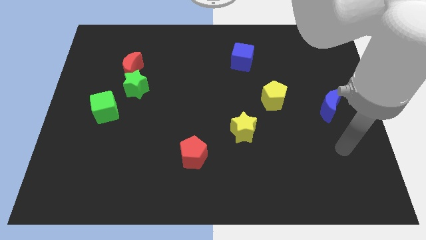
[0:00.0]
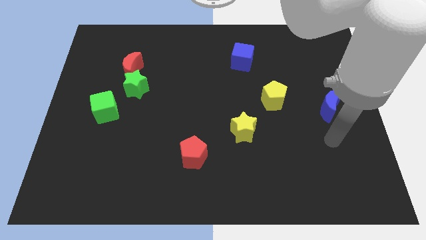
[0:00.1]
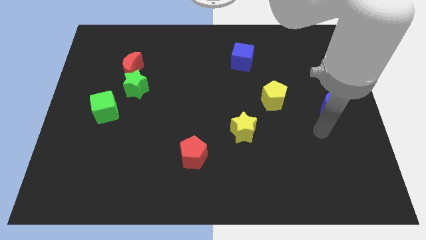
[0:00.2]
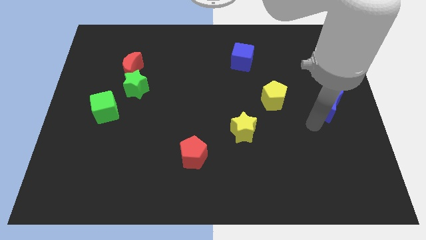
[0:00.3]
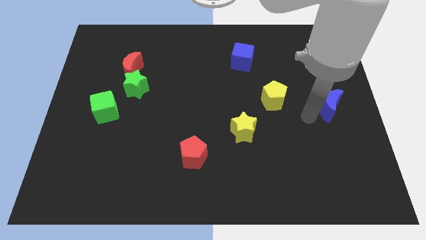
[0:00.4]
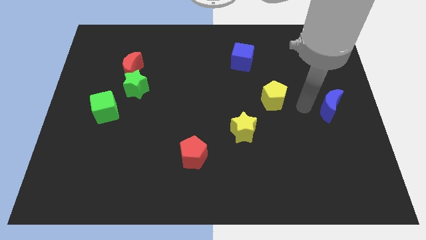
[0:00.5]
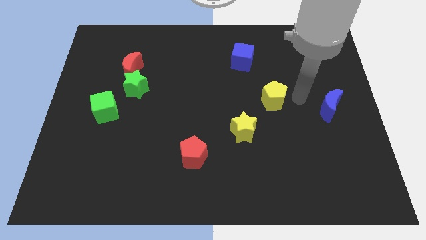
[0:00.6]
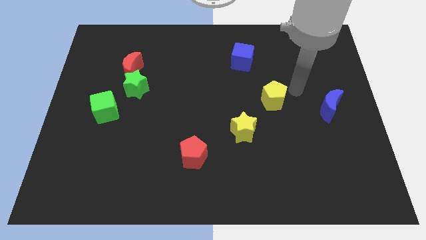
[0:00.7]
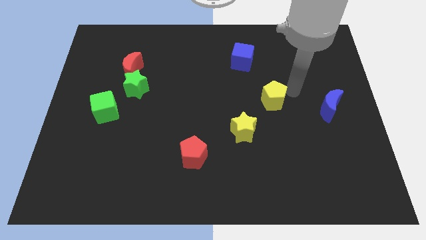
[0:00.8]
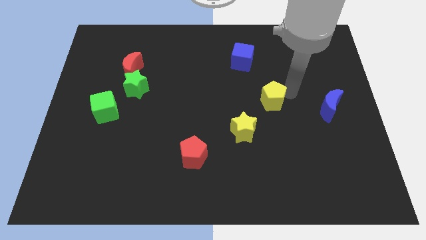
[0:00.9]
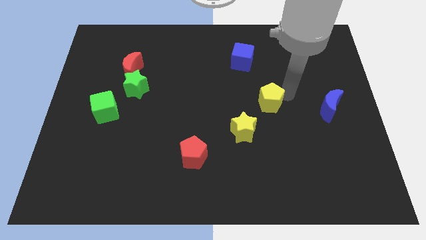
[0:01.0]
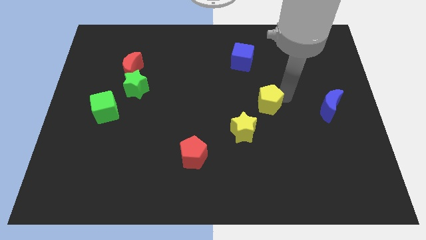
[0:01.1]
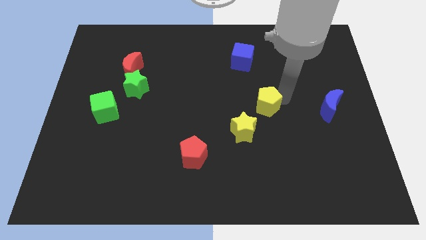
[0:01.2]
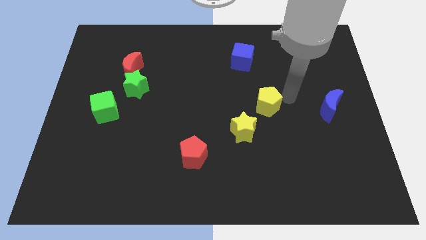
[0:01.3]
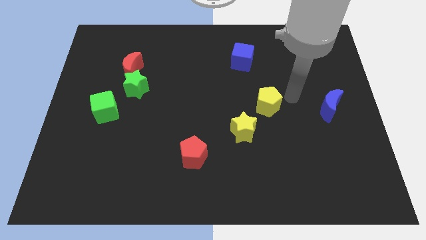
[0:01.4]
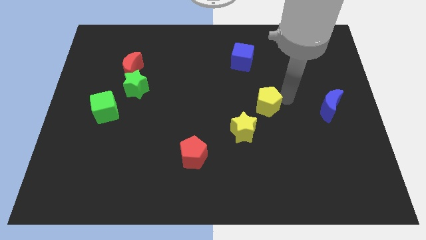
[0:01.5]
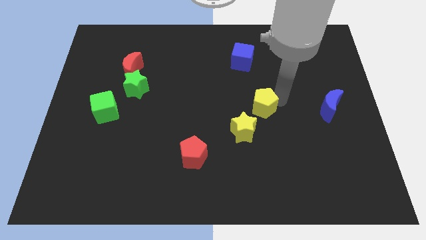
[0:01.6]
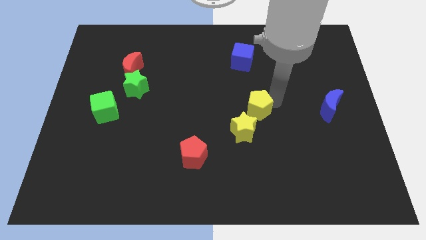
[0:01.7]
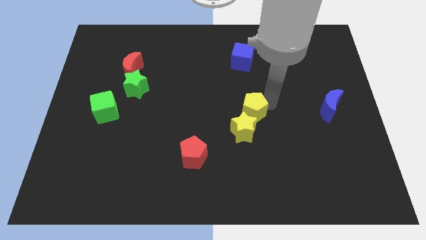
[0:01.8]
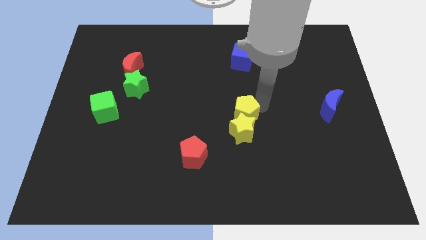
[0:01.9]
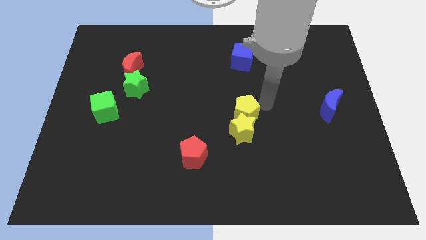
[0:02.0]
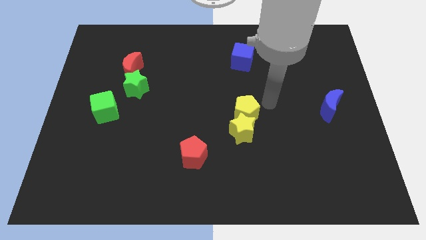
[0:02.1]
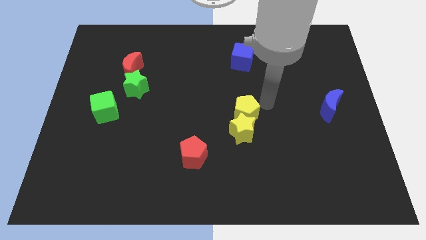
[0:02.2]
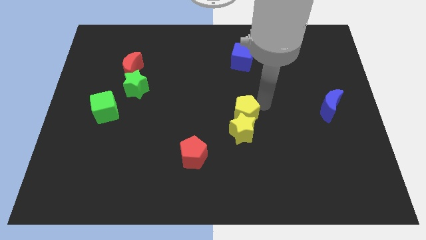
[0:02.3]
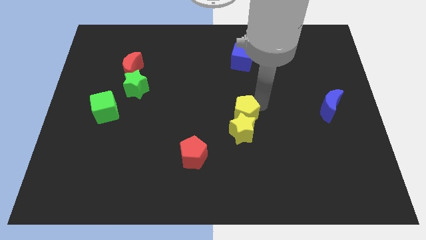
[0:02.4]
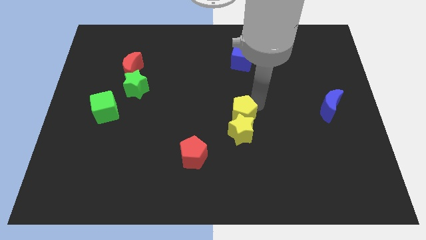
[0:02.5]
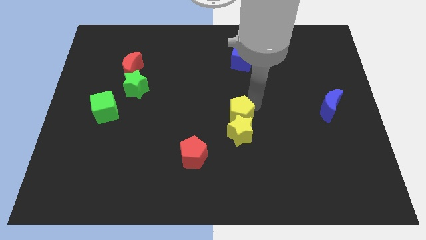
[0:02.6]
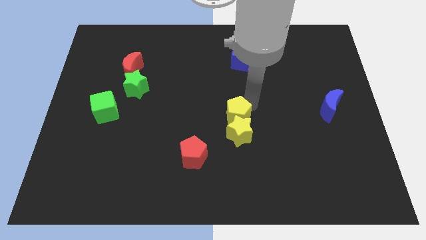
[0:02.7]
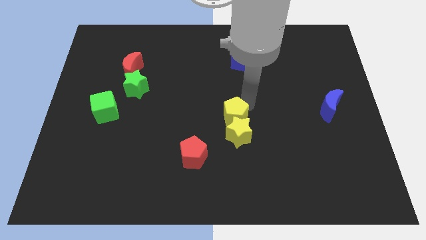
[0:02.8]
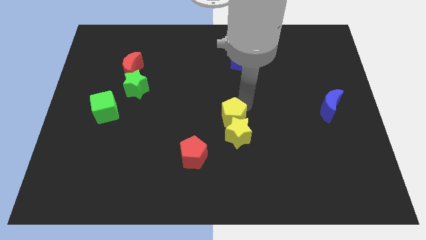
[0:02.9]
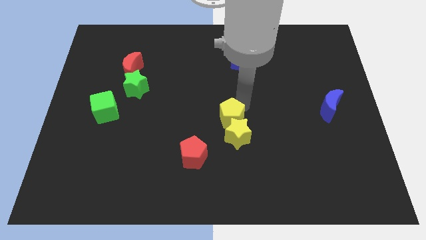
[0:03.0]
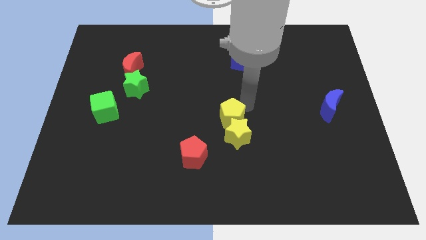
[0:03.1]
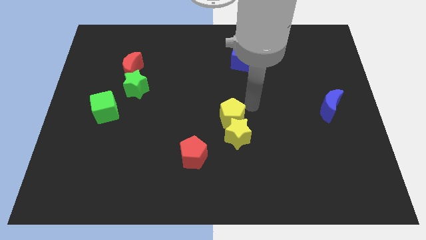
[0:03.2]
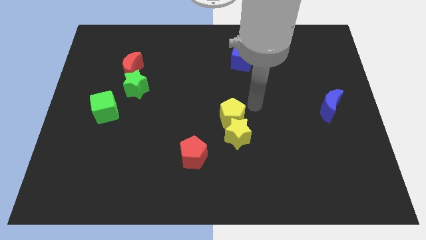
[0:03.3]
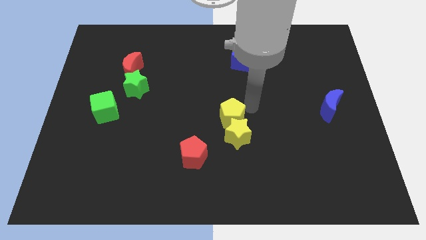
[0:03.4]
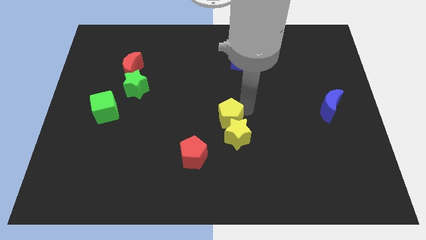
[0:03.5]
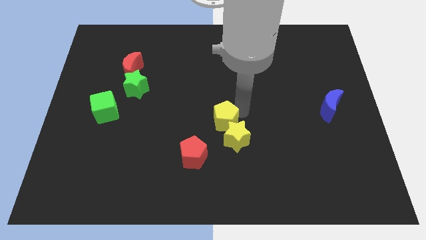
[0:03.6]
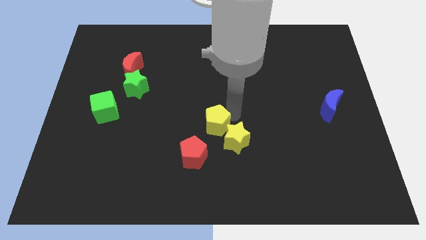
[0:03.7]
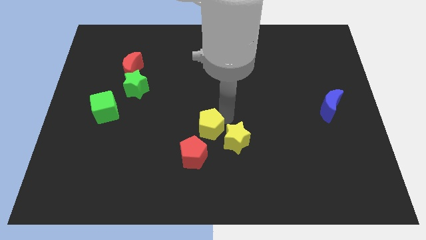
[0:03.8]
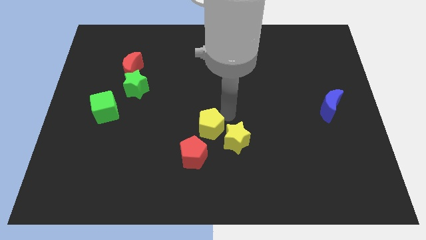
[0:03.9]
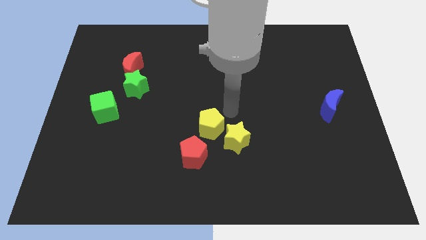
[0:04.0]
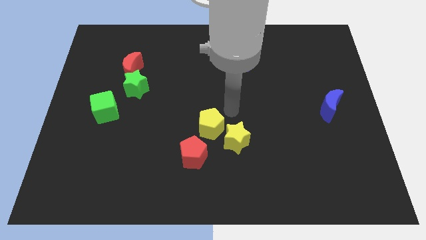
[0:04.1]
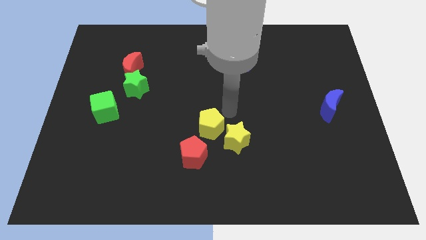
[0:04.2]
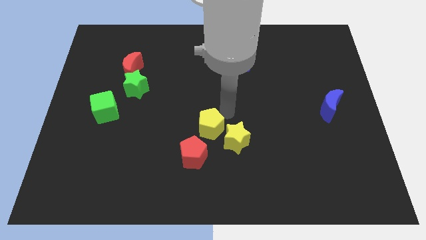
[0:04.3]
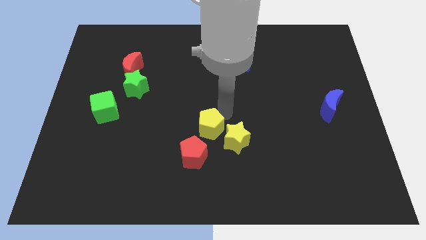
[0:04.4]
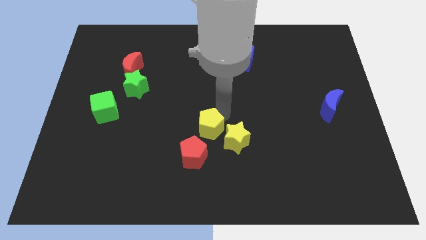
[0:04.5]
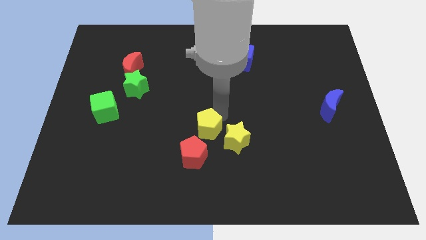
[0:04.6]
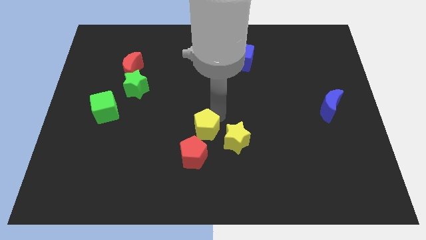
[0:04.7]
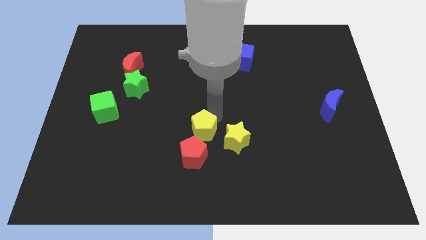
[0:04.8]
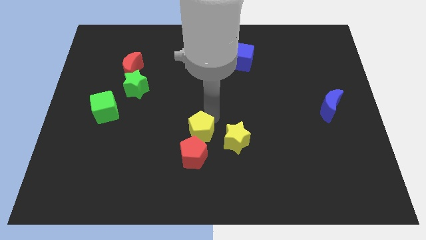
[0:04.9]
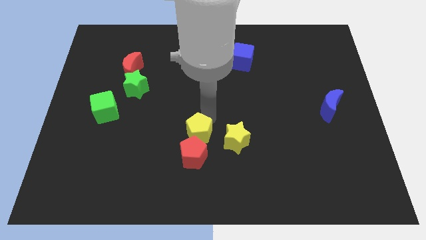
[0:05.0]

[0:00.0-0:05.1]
move the yellow pentagon towards the red pentagon

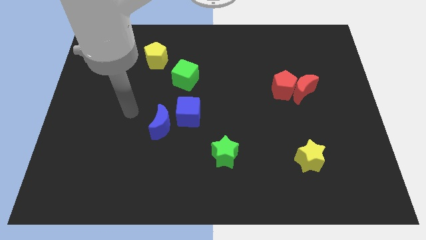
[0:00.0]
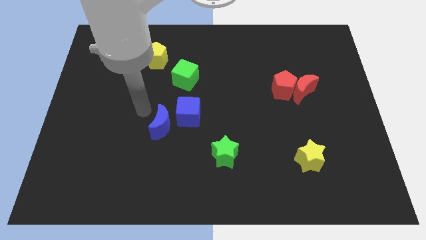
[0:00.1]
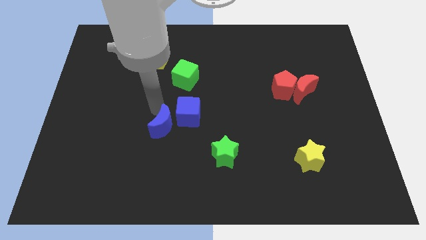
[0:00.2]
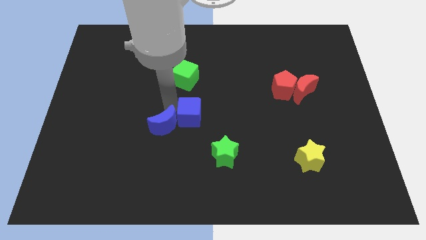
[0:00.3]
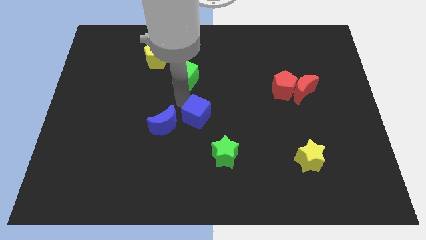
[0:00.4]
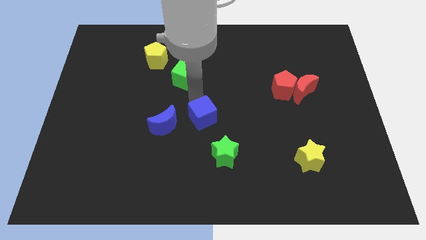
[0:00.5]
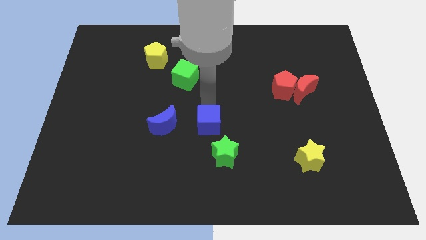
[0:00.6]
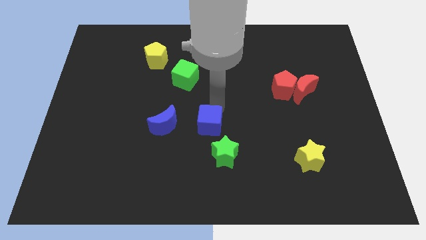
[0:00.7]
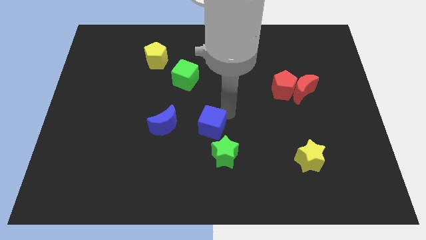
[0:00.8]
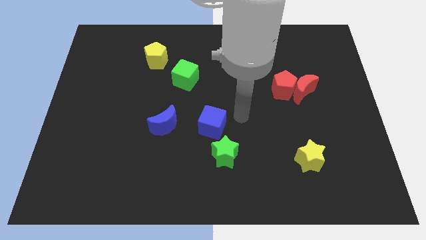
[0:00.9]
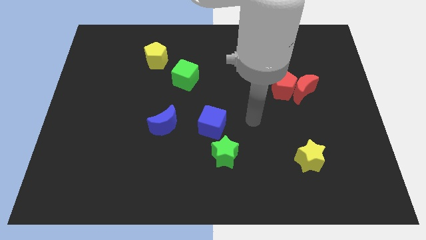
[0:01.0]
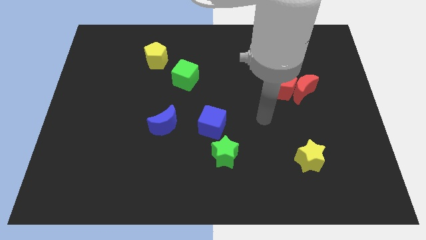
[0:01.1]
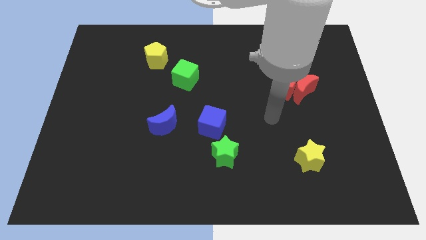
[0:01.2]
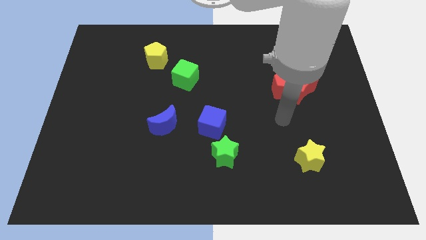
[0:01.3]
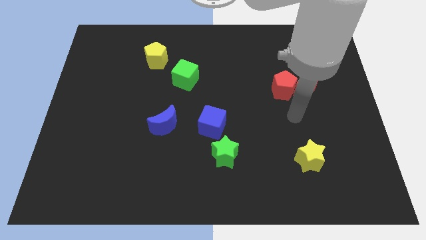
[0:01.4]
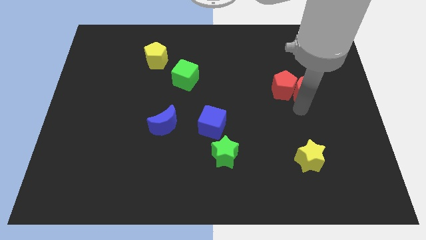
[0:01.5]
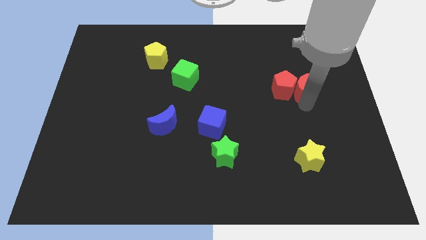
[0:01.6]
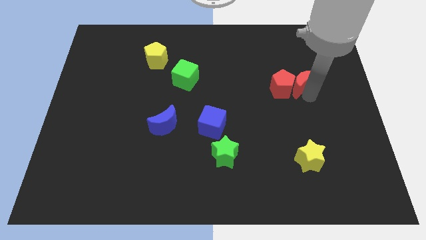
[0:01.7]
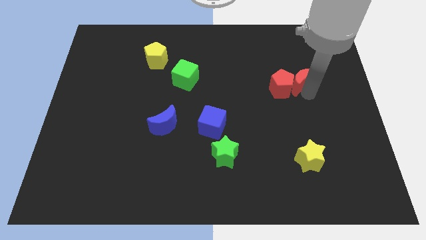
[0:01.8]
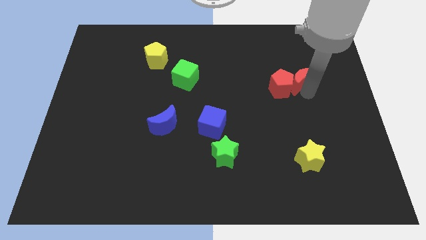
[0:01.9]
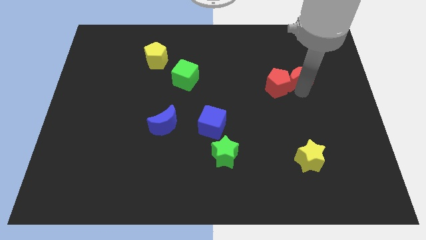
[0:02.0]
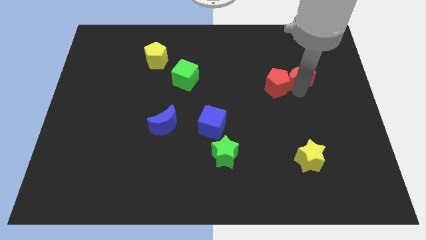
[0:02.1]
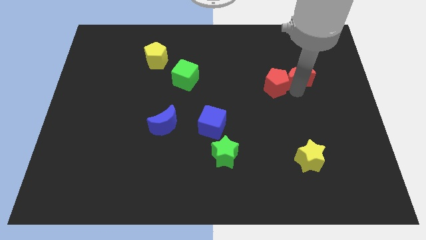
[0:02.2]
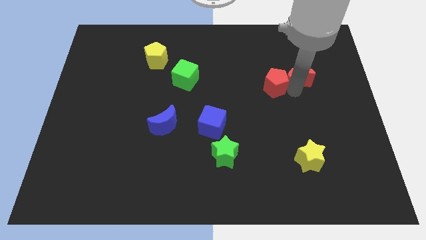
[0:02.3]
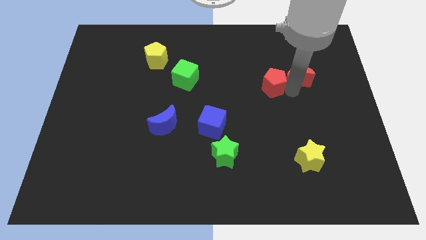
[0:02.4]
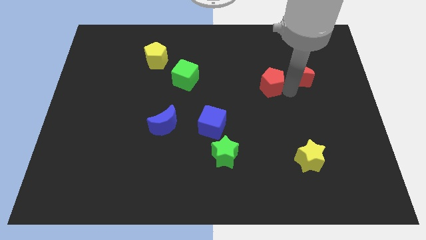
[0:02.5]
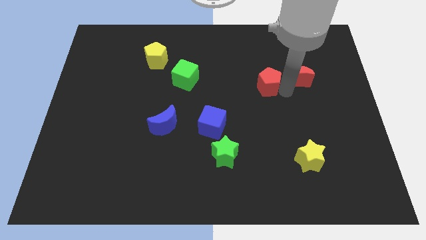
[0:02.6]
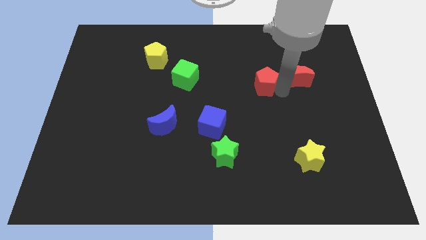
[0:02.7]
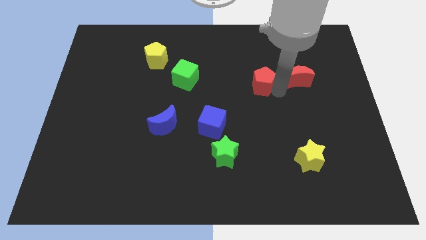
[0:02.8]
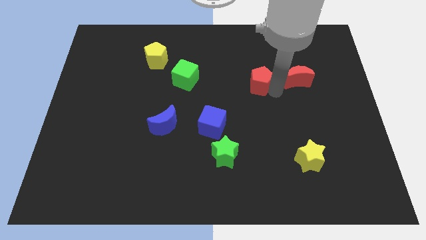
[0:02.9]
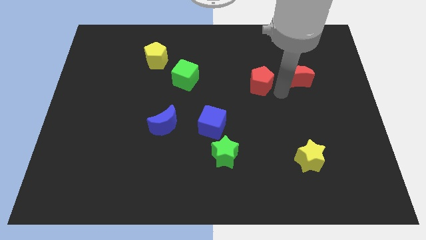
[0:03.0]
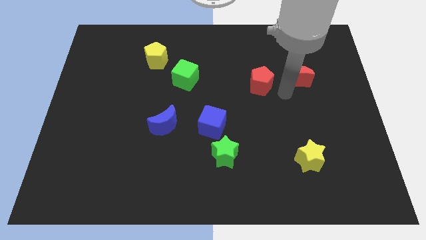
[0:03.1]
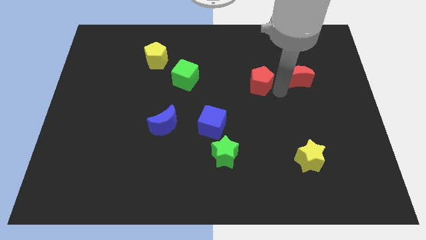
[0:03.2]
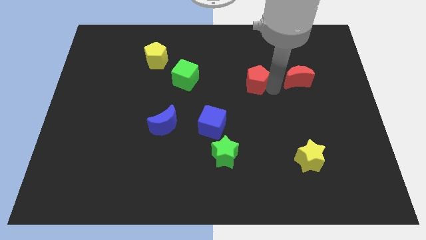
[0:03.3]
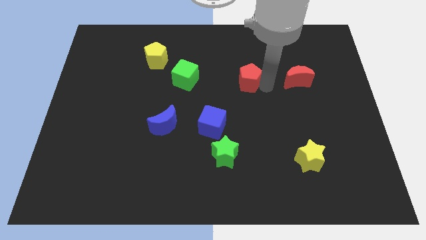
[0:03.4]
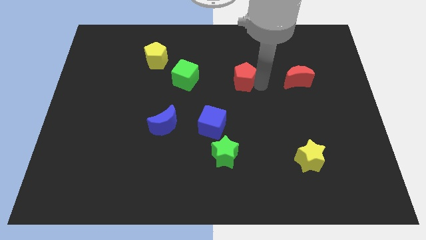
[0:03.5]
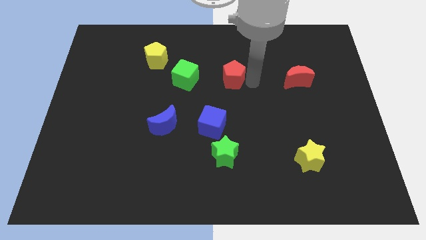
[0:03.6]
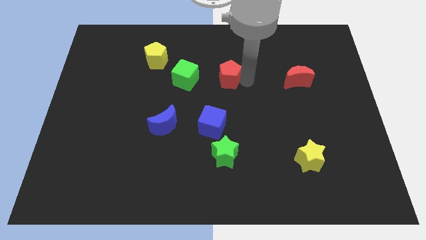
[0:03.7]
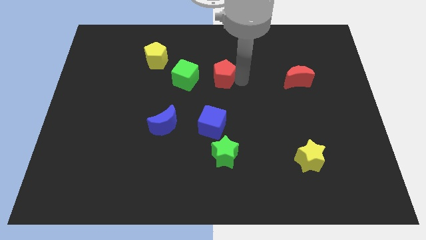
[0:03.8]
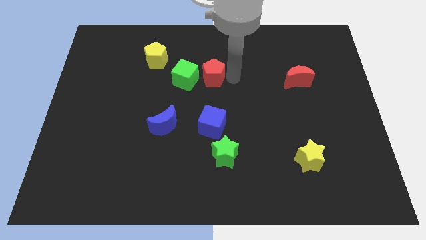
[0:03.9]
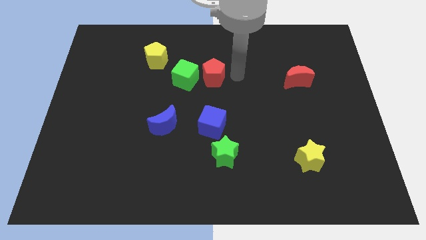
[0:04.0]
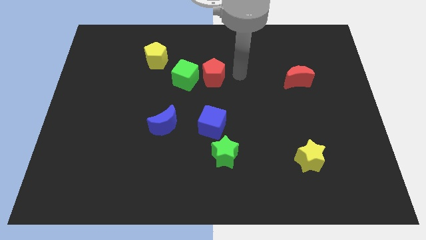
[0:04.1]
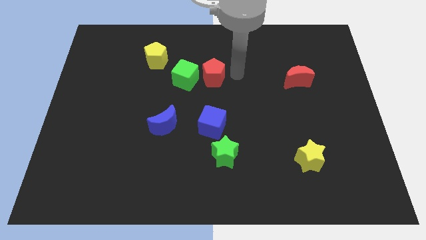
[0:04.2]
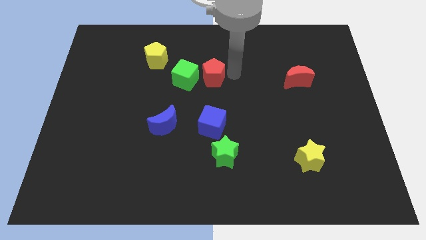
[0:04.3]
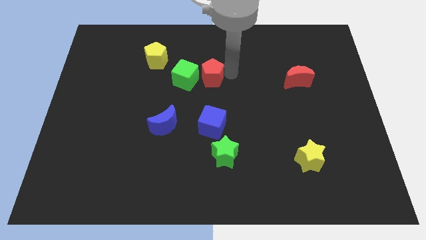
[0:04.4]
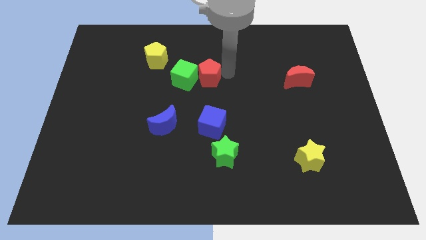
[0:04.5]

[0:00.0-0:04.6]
push the red pentagon to the green cube
